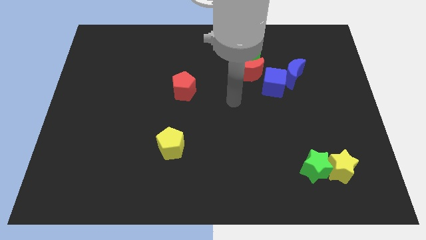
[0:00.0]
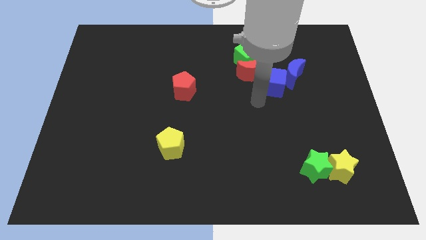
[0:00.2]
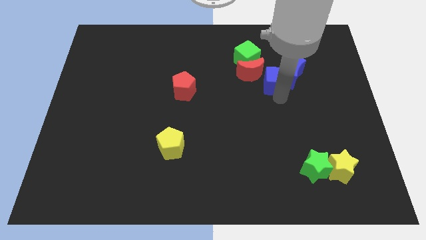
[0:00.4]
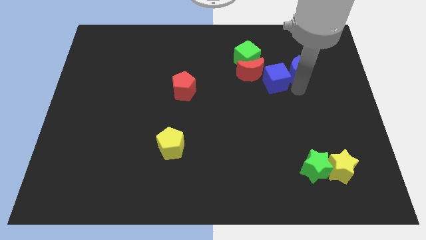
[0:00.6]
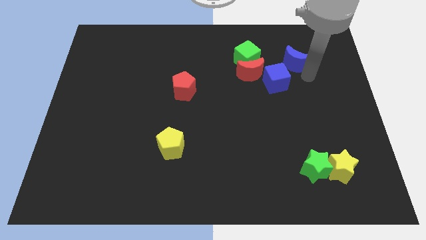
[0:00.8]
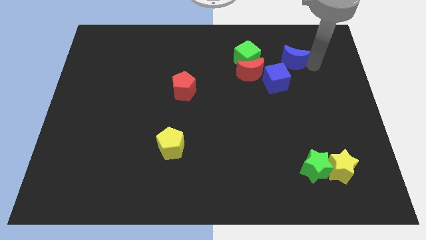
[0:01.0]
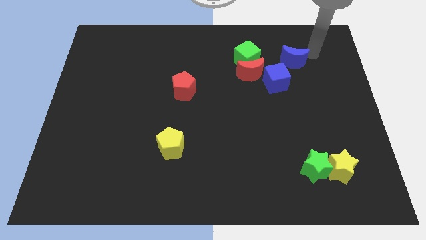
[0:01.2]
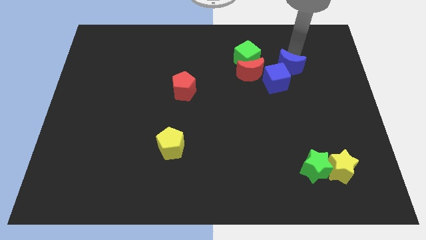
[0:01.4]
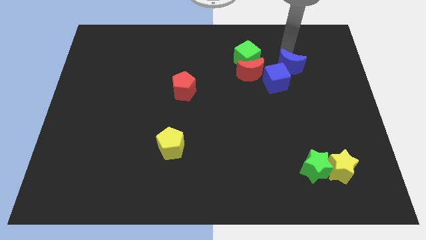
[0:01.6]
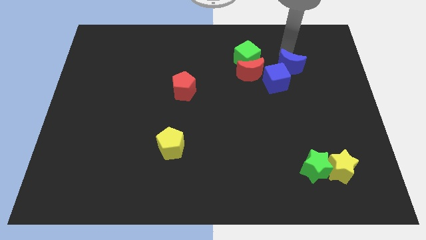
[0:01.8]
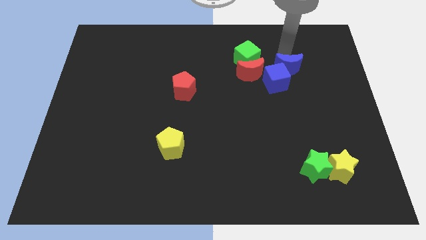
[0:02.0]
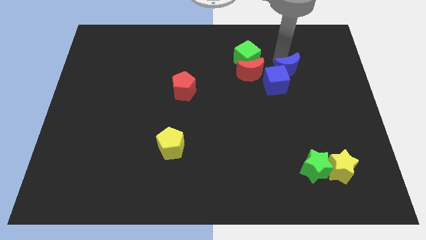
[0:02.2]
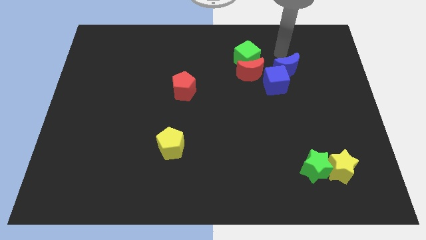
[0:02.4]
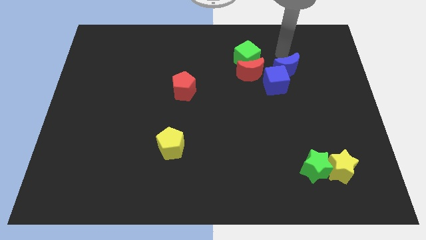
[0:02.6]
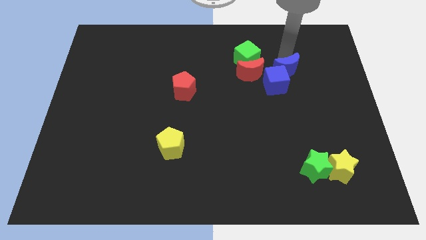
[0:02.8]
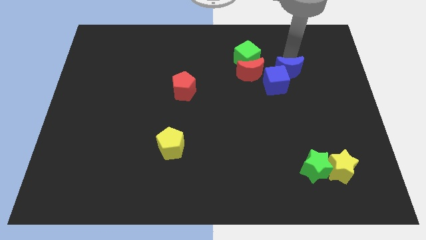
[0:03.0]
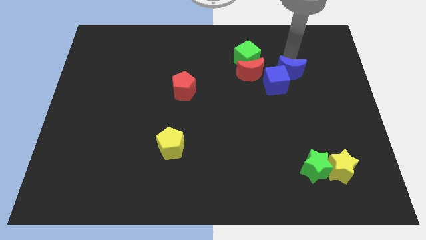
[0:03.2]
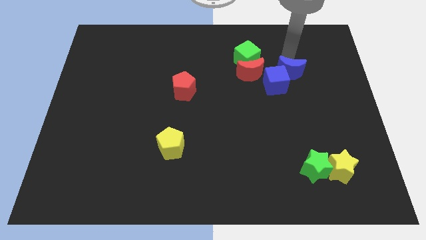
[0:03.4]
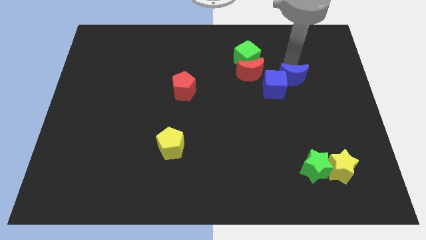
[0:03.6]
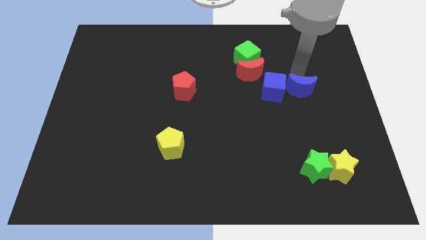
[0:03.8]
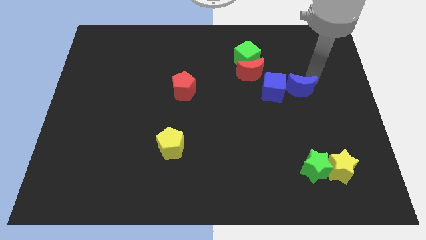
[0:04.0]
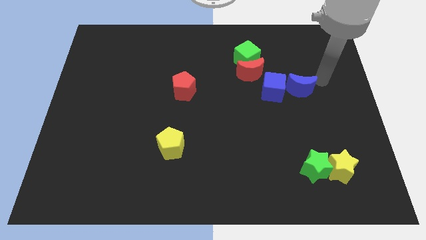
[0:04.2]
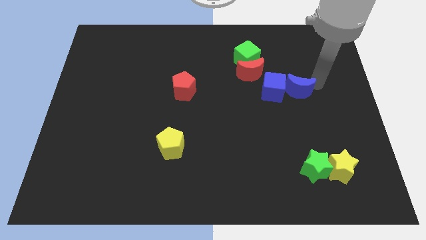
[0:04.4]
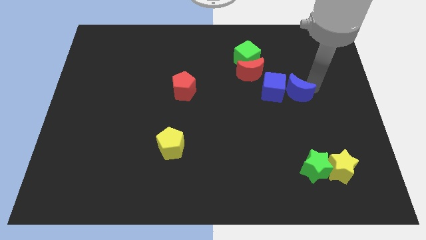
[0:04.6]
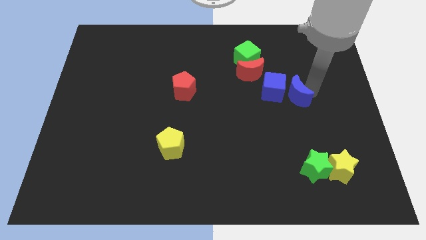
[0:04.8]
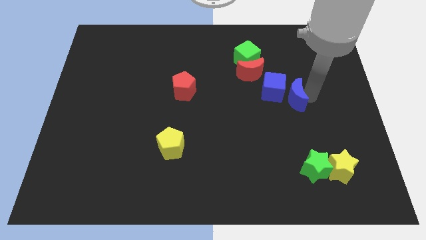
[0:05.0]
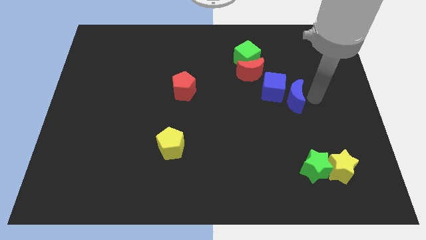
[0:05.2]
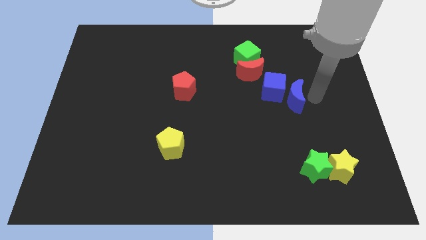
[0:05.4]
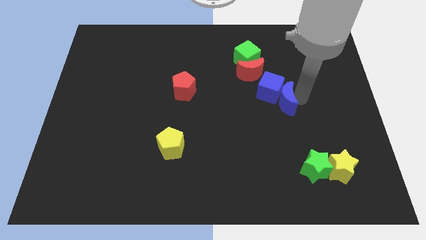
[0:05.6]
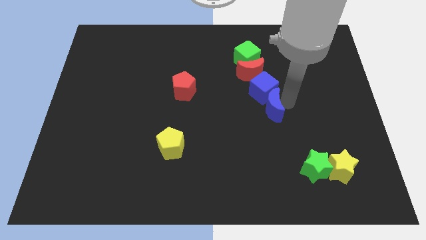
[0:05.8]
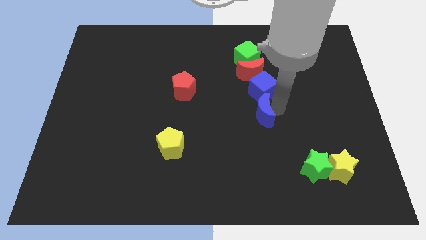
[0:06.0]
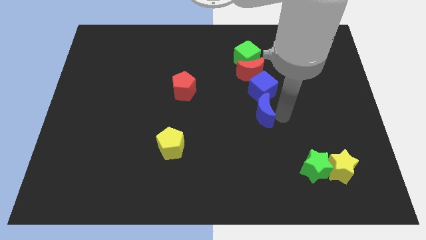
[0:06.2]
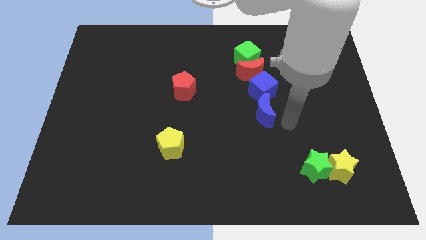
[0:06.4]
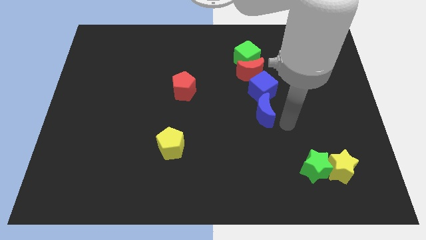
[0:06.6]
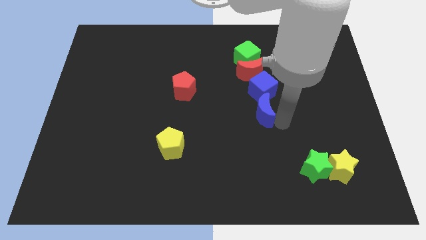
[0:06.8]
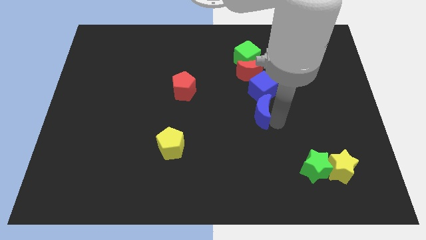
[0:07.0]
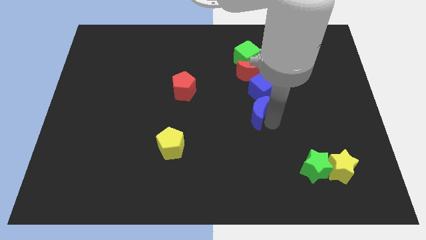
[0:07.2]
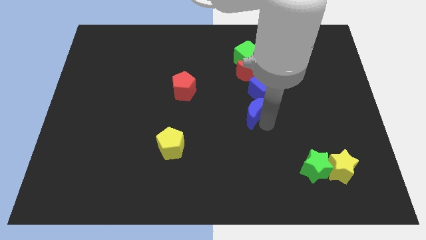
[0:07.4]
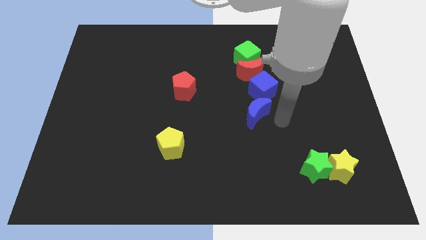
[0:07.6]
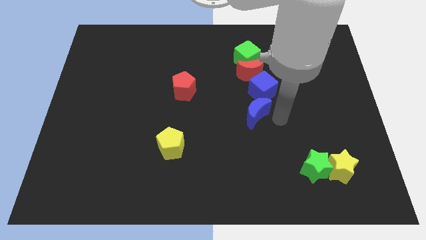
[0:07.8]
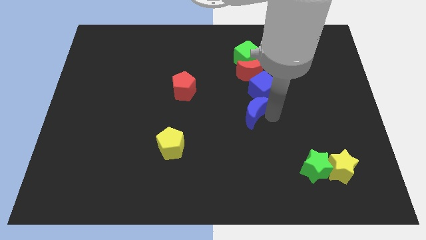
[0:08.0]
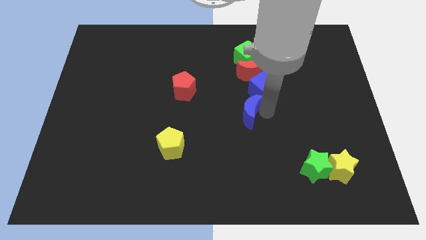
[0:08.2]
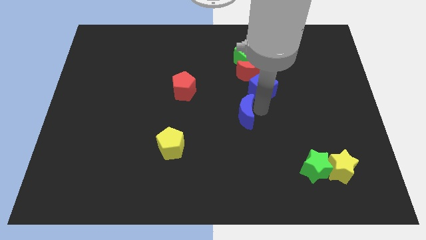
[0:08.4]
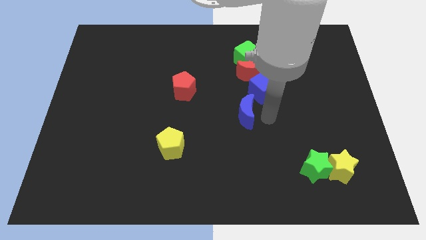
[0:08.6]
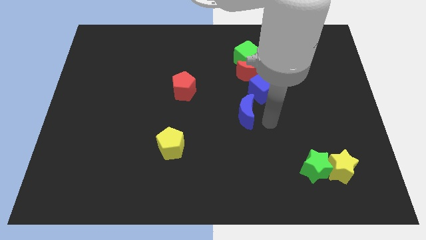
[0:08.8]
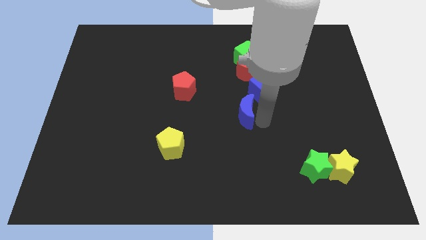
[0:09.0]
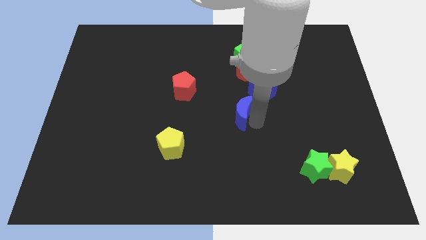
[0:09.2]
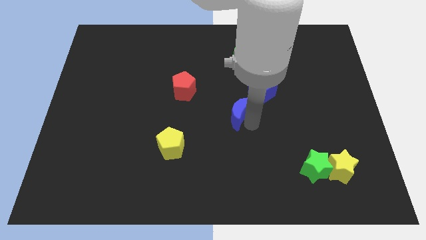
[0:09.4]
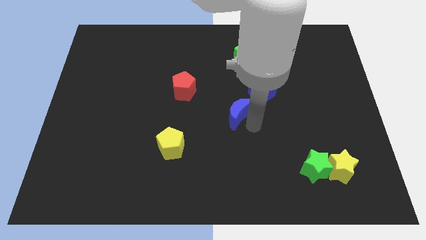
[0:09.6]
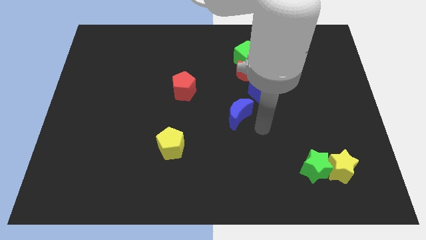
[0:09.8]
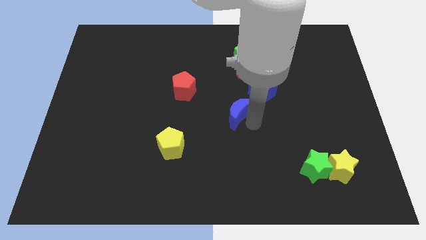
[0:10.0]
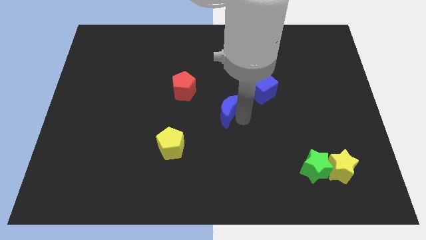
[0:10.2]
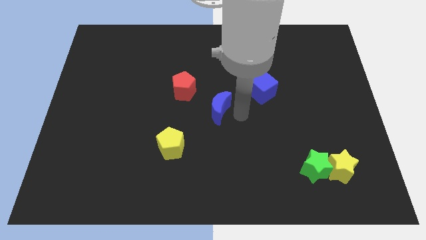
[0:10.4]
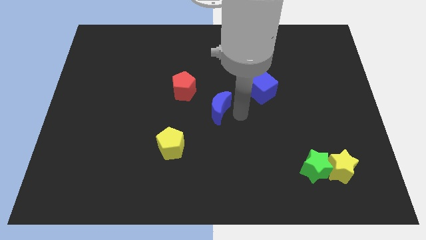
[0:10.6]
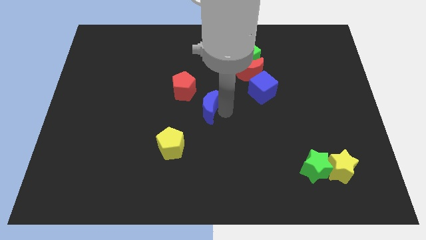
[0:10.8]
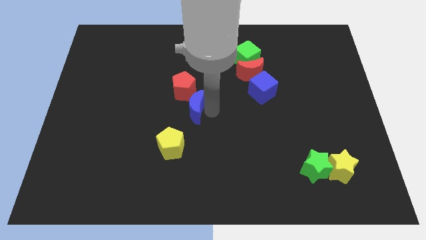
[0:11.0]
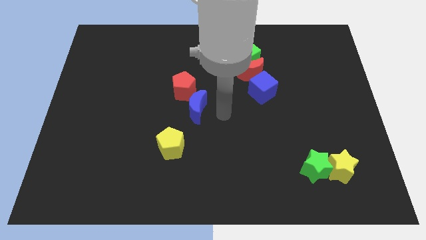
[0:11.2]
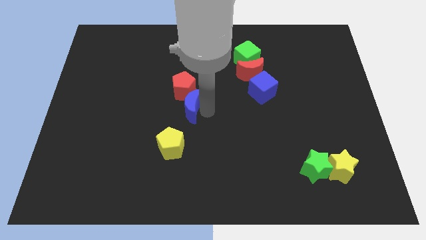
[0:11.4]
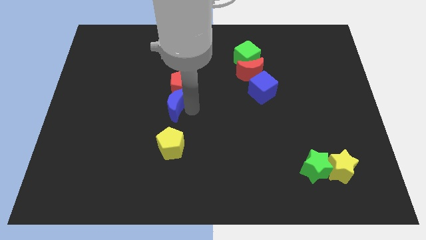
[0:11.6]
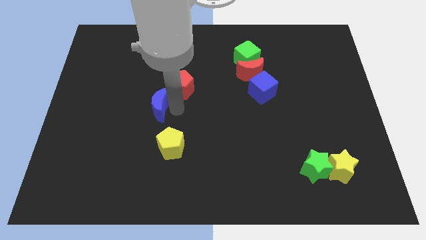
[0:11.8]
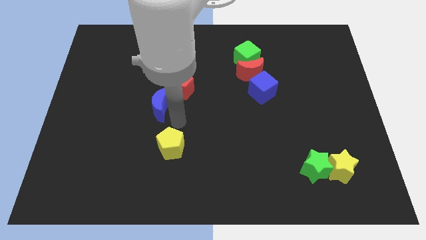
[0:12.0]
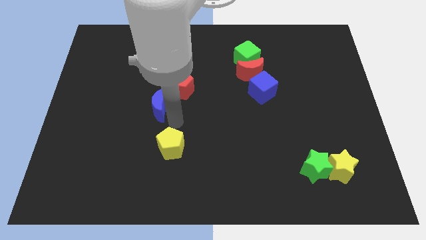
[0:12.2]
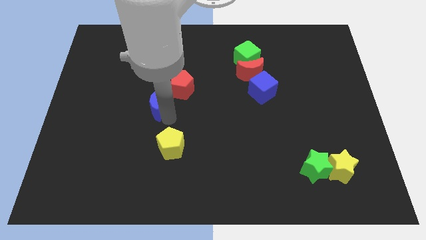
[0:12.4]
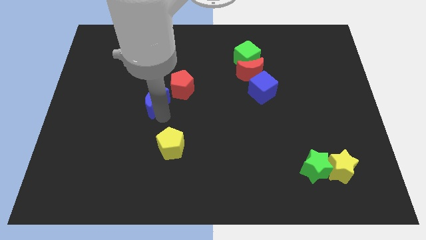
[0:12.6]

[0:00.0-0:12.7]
push the blue moon just left of the red pentagon

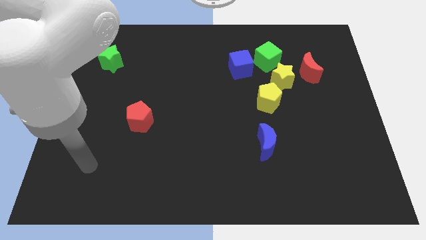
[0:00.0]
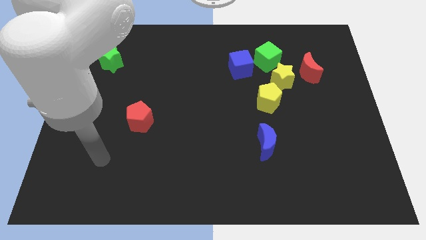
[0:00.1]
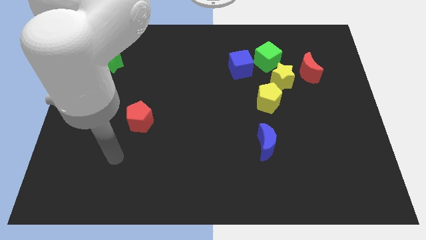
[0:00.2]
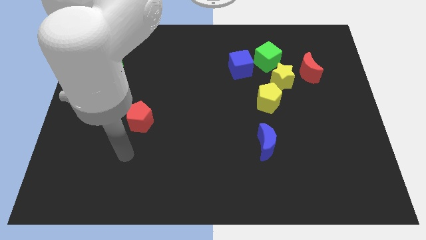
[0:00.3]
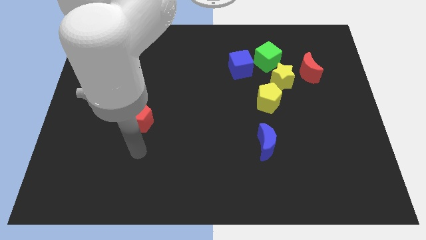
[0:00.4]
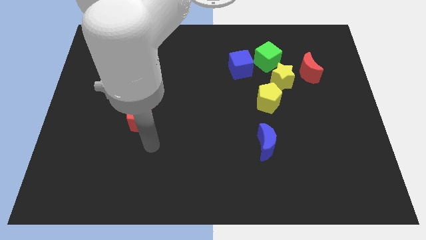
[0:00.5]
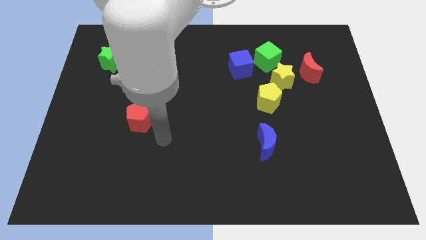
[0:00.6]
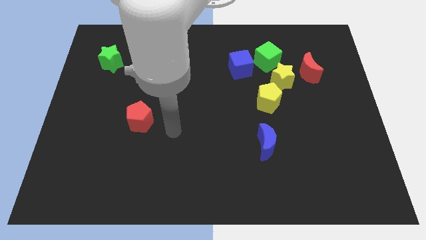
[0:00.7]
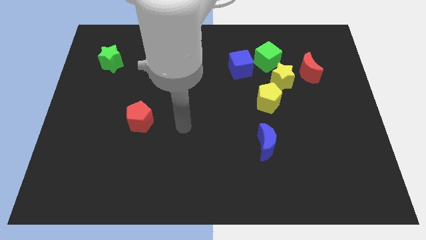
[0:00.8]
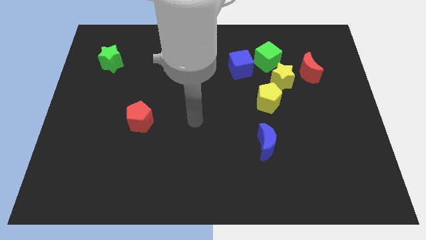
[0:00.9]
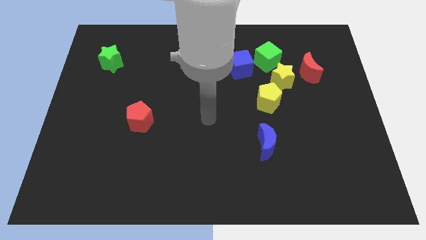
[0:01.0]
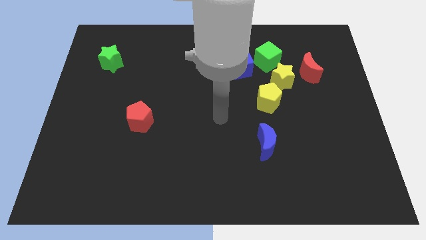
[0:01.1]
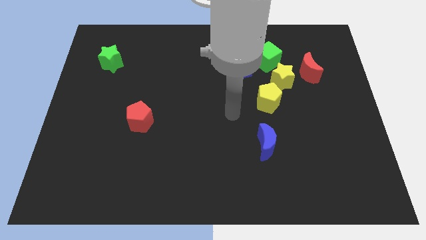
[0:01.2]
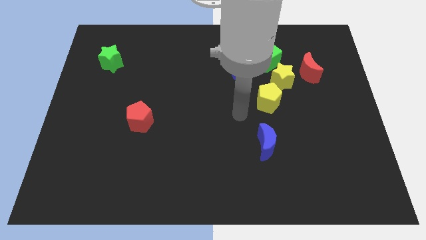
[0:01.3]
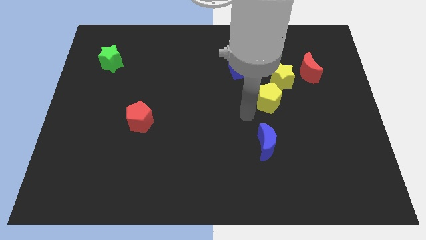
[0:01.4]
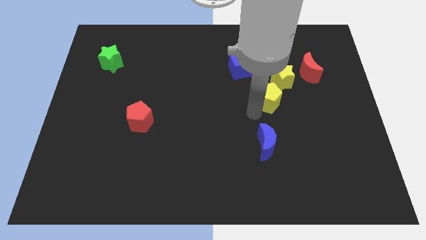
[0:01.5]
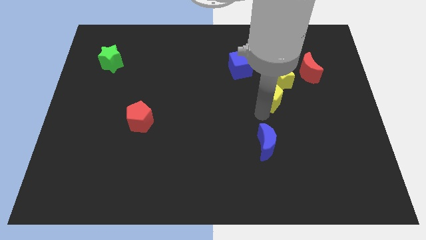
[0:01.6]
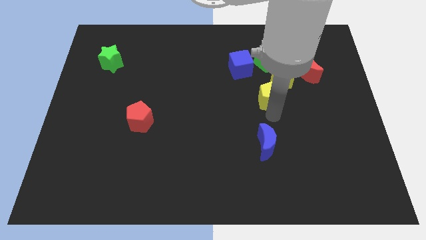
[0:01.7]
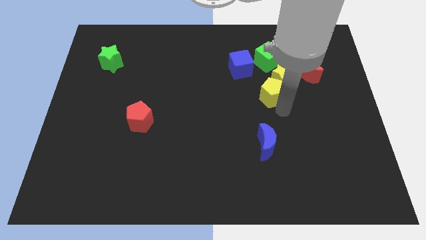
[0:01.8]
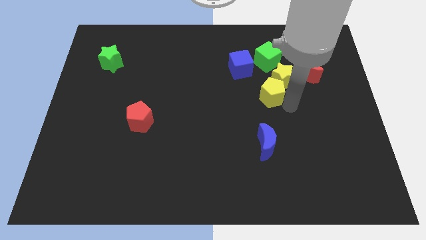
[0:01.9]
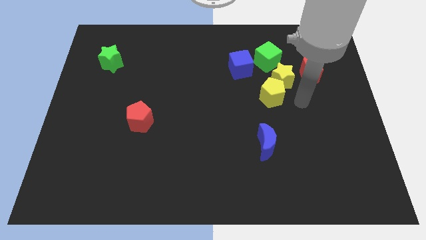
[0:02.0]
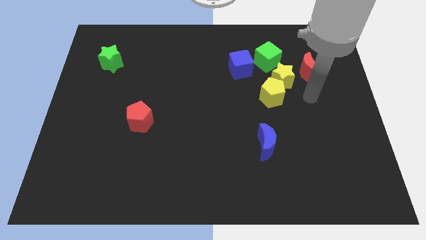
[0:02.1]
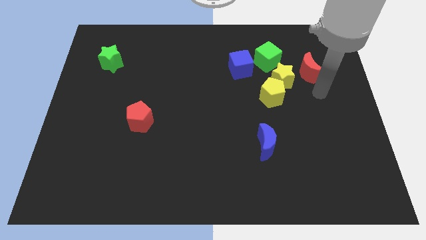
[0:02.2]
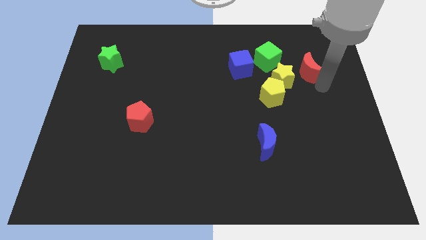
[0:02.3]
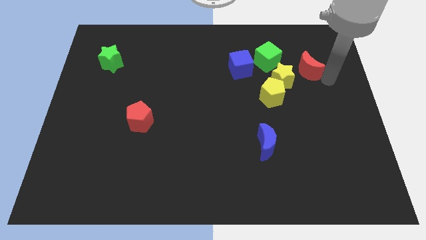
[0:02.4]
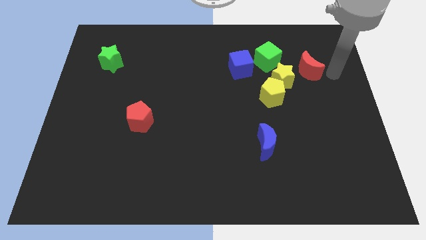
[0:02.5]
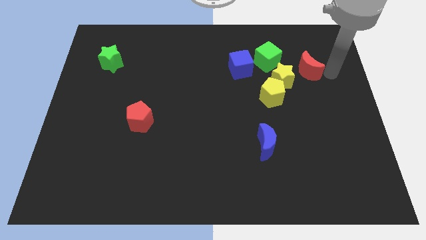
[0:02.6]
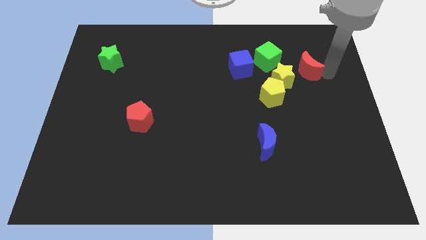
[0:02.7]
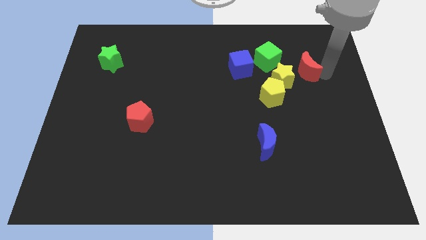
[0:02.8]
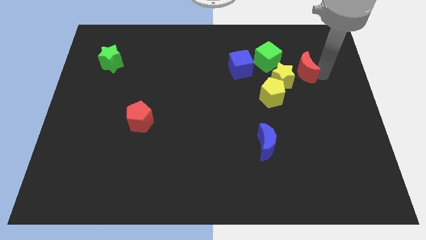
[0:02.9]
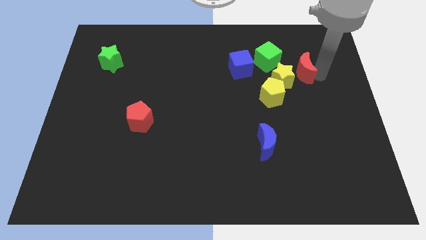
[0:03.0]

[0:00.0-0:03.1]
put the red moon right of the blue cube
